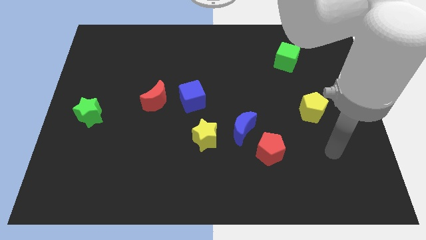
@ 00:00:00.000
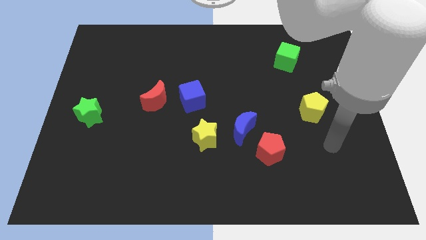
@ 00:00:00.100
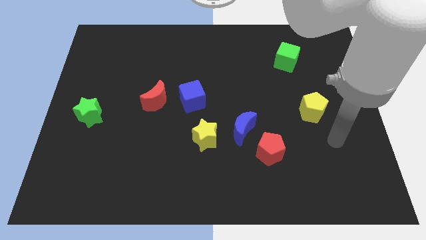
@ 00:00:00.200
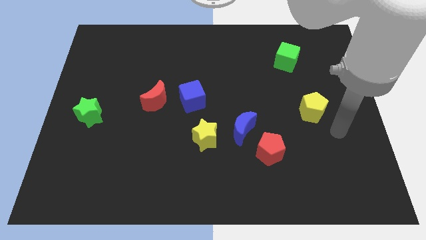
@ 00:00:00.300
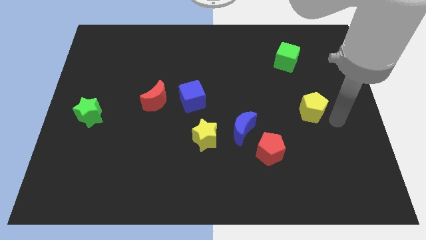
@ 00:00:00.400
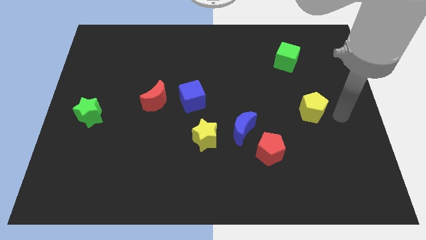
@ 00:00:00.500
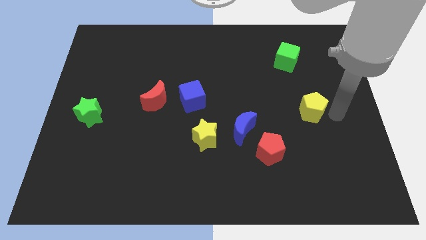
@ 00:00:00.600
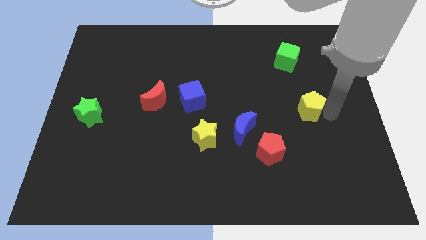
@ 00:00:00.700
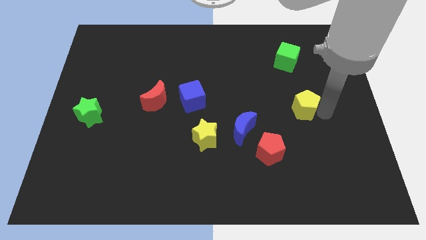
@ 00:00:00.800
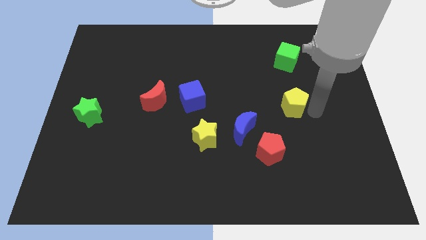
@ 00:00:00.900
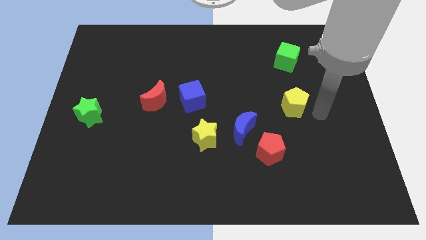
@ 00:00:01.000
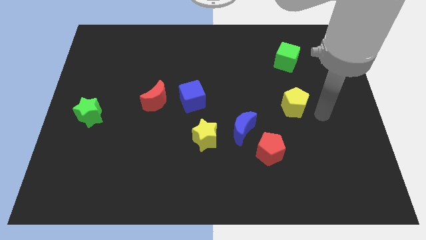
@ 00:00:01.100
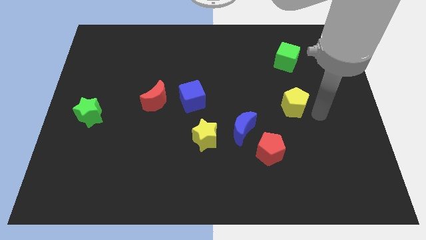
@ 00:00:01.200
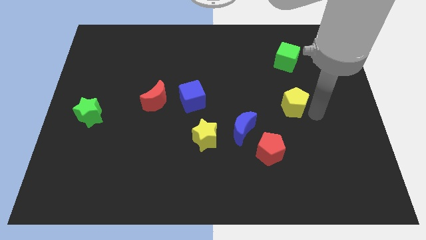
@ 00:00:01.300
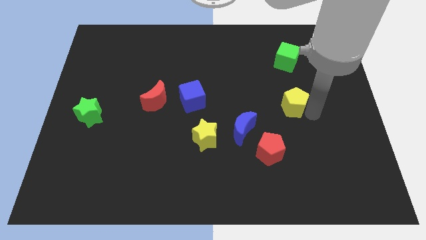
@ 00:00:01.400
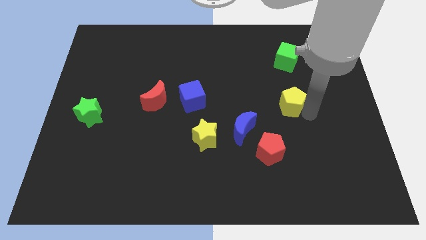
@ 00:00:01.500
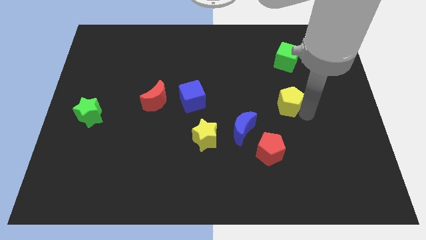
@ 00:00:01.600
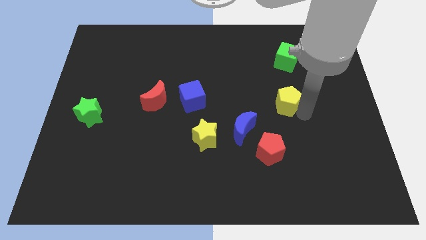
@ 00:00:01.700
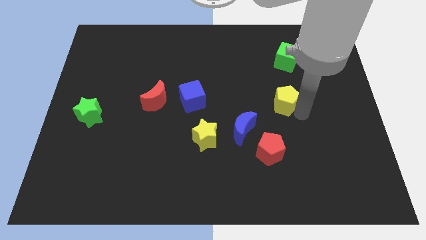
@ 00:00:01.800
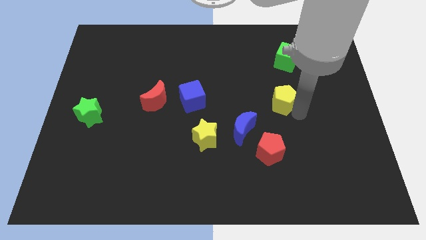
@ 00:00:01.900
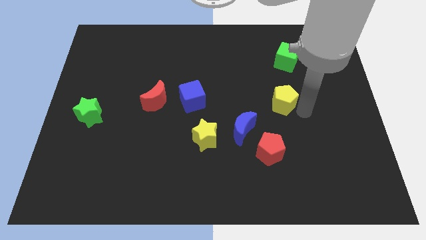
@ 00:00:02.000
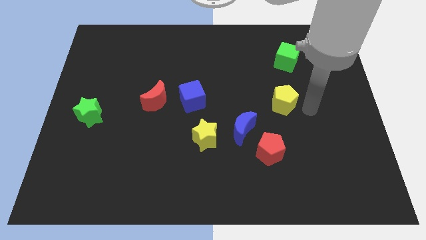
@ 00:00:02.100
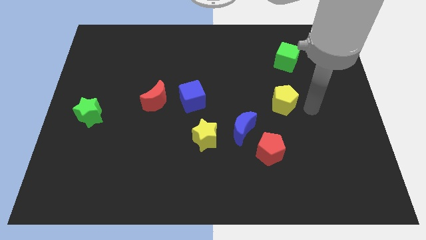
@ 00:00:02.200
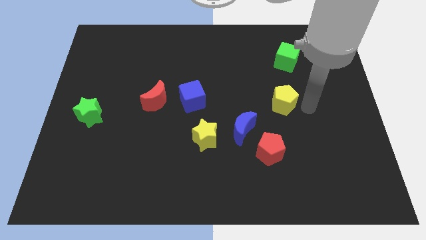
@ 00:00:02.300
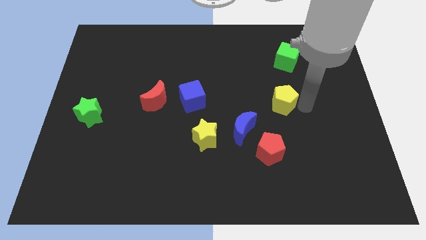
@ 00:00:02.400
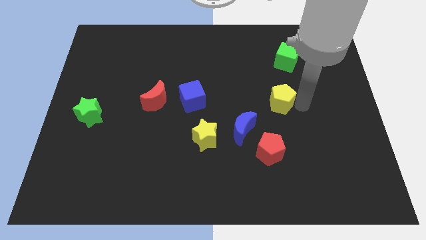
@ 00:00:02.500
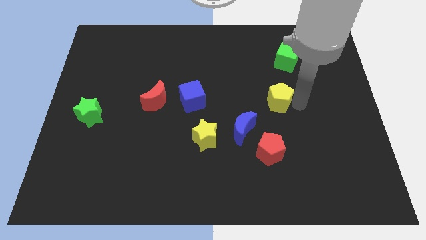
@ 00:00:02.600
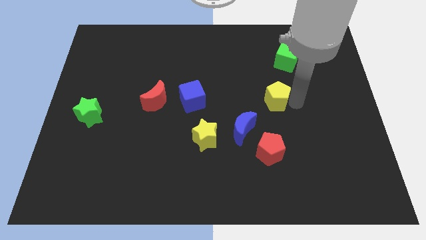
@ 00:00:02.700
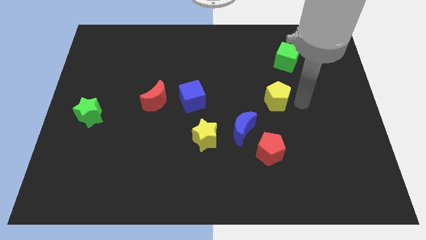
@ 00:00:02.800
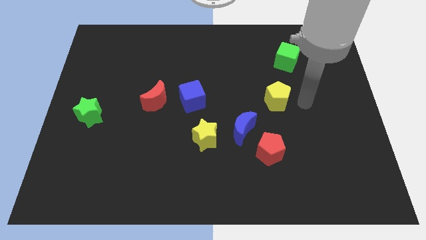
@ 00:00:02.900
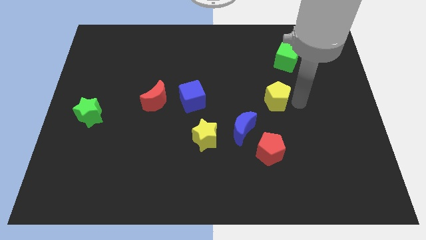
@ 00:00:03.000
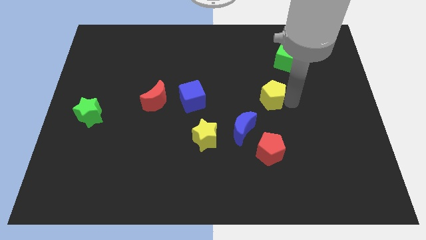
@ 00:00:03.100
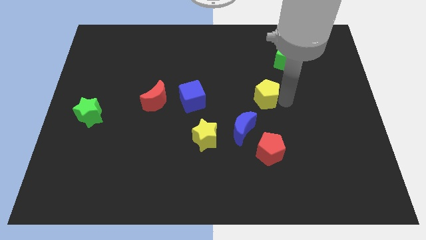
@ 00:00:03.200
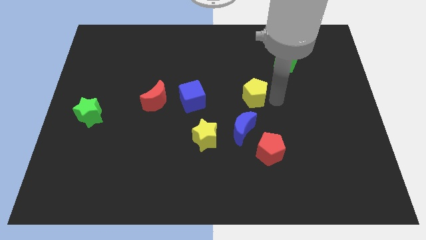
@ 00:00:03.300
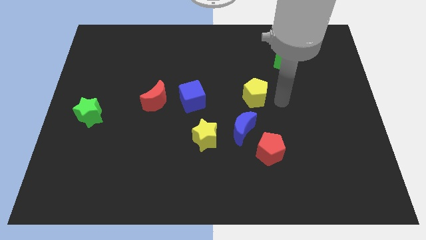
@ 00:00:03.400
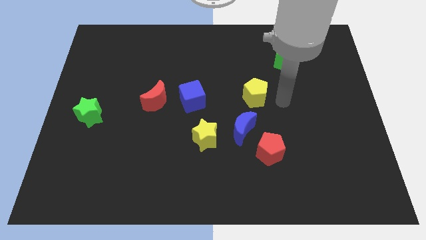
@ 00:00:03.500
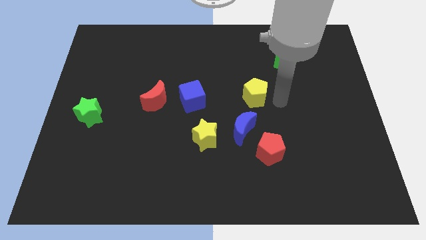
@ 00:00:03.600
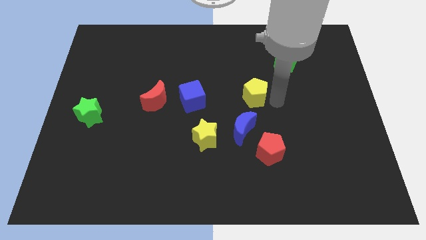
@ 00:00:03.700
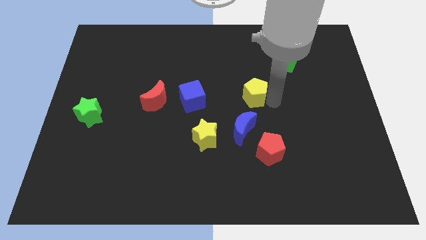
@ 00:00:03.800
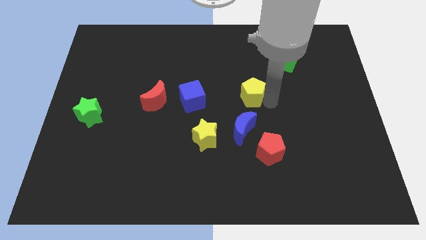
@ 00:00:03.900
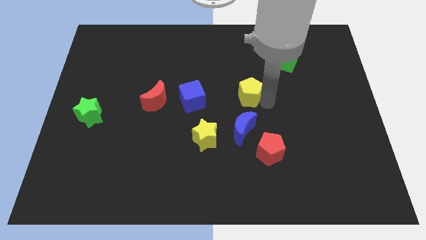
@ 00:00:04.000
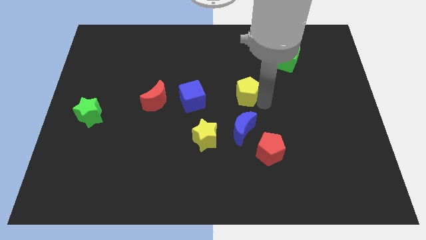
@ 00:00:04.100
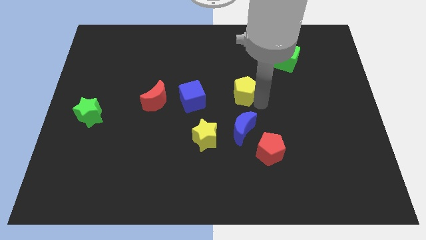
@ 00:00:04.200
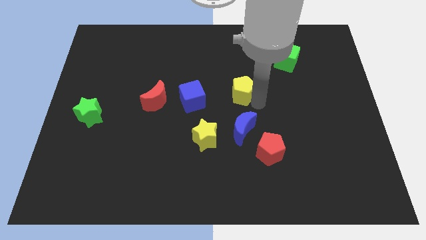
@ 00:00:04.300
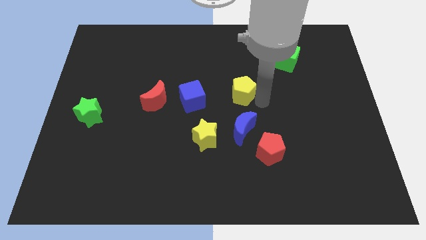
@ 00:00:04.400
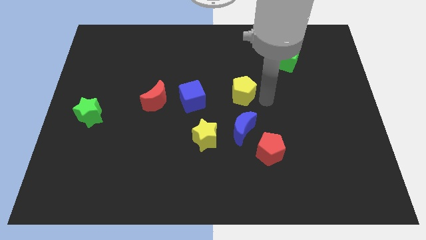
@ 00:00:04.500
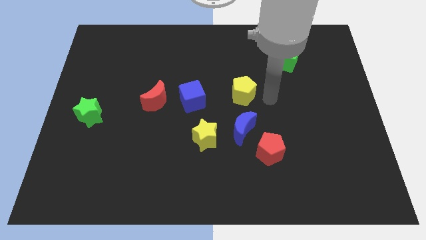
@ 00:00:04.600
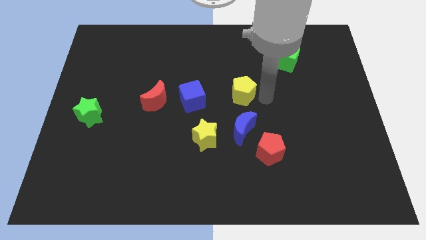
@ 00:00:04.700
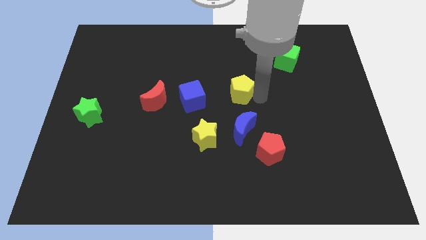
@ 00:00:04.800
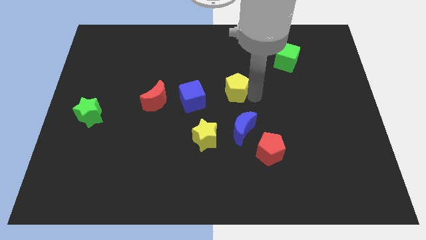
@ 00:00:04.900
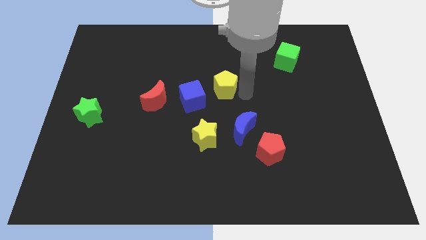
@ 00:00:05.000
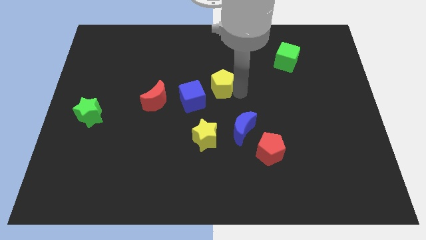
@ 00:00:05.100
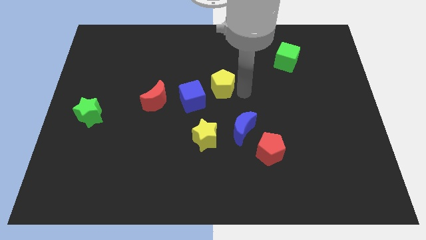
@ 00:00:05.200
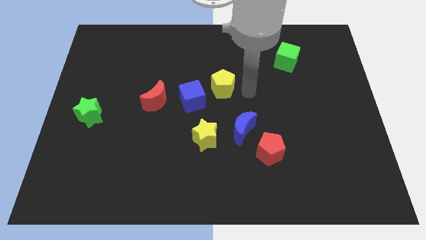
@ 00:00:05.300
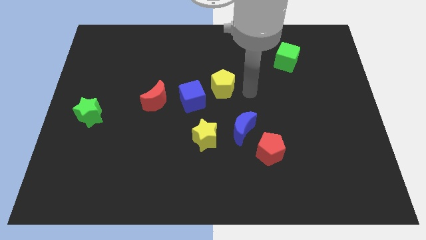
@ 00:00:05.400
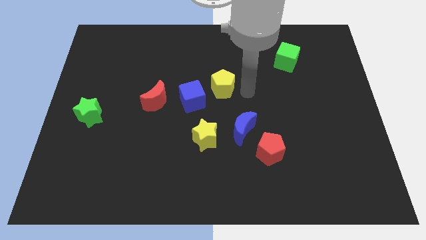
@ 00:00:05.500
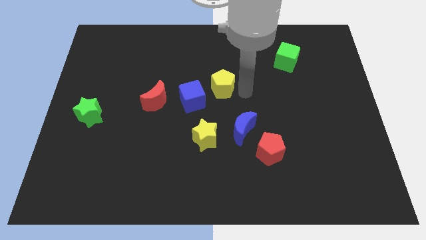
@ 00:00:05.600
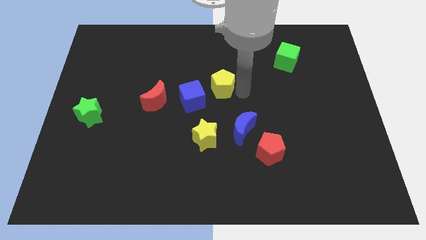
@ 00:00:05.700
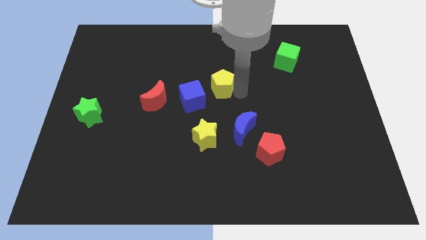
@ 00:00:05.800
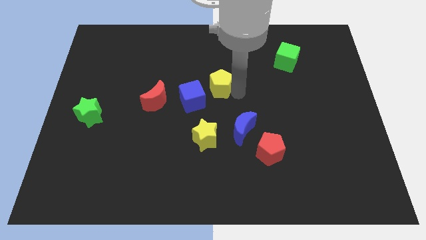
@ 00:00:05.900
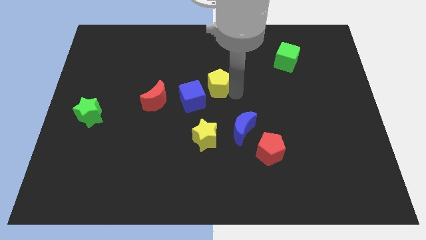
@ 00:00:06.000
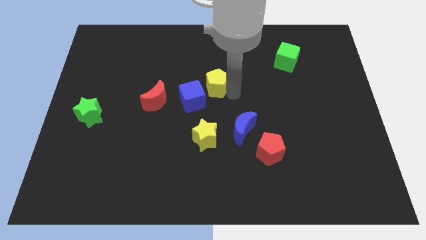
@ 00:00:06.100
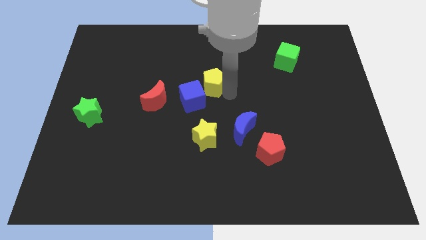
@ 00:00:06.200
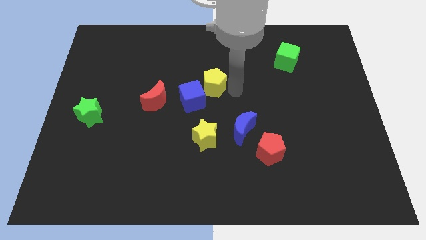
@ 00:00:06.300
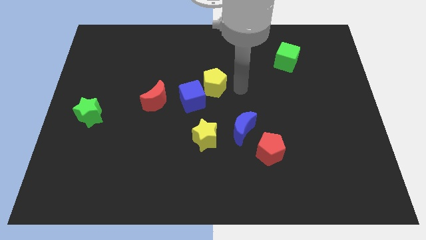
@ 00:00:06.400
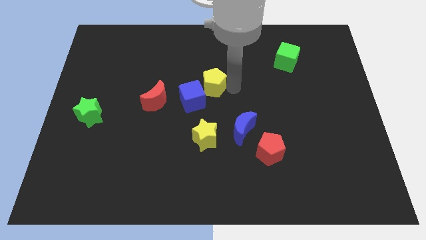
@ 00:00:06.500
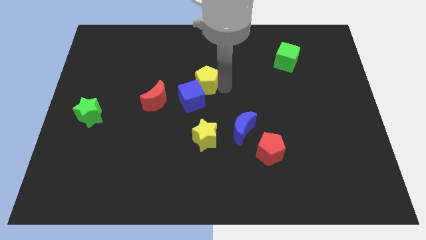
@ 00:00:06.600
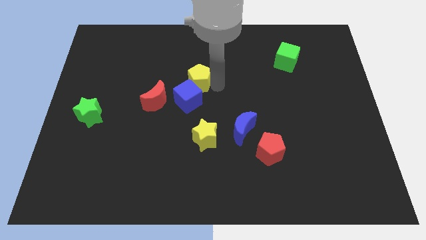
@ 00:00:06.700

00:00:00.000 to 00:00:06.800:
slide the yellow pentagon diagonally up and to the right of the red moon
